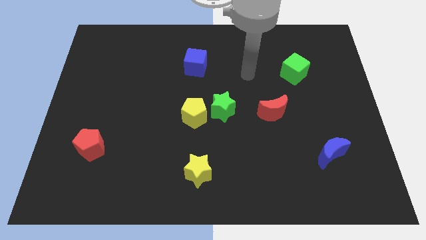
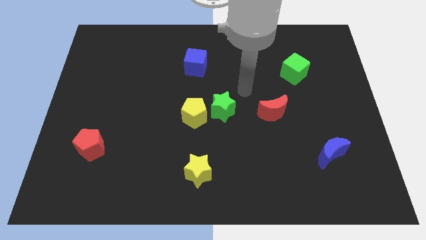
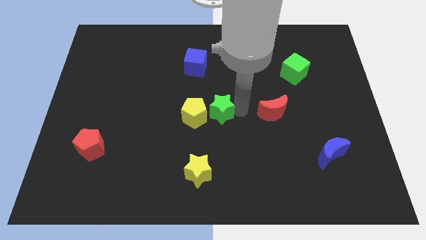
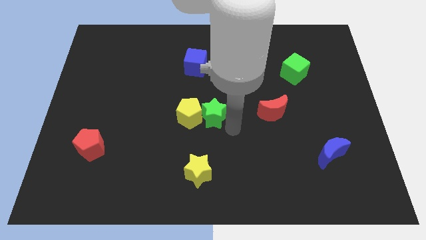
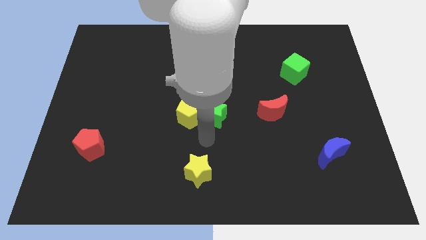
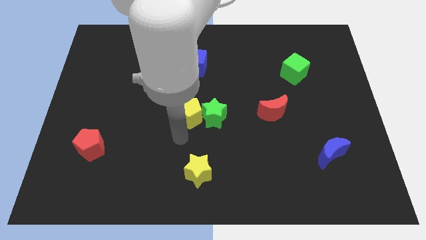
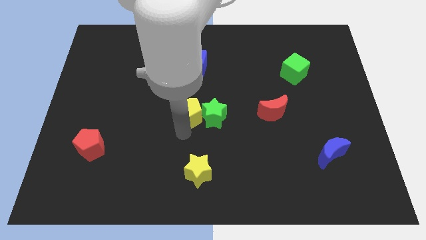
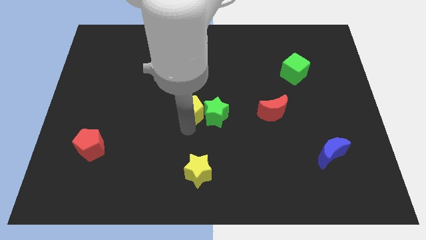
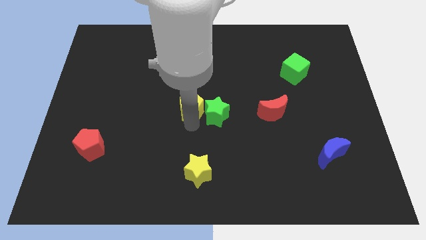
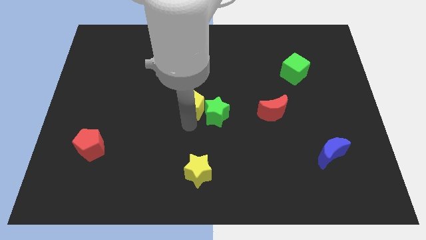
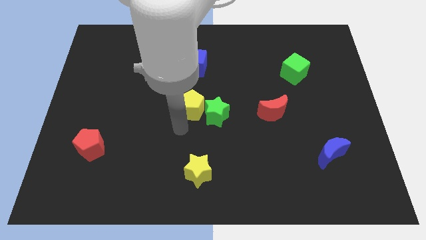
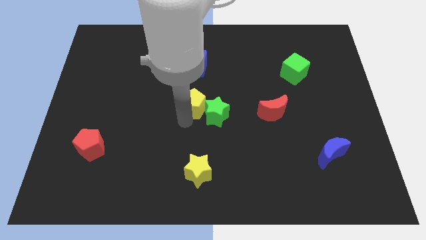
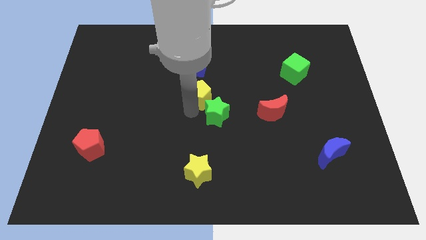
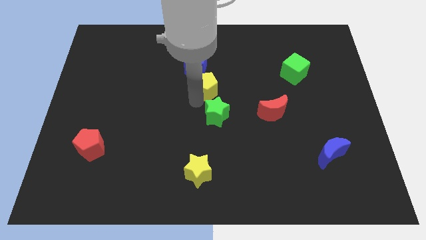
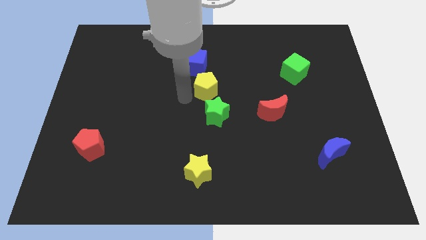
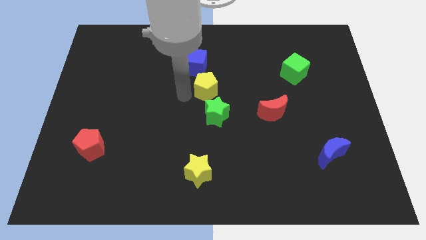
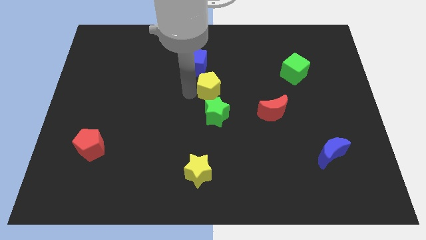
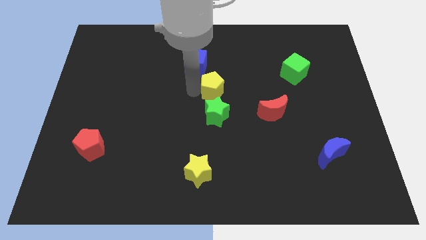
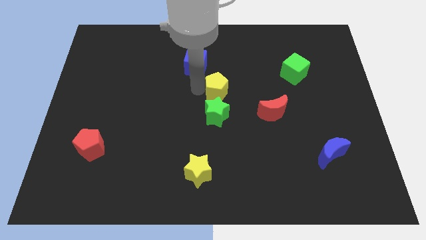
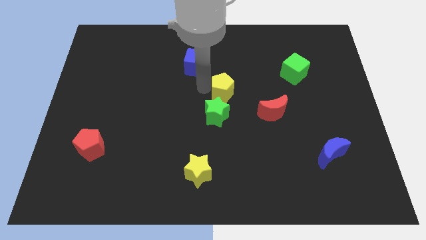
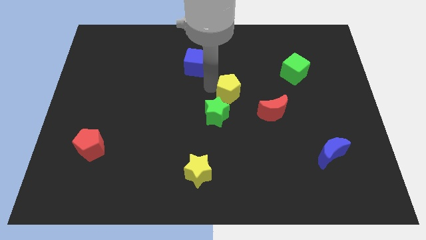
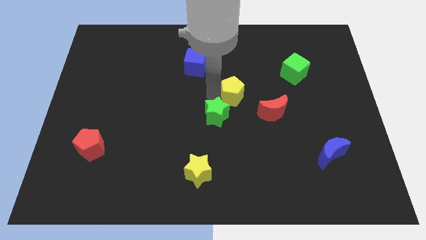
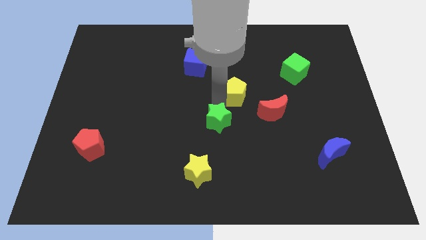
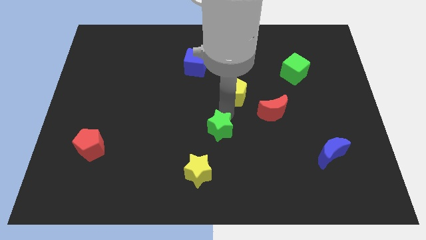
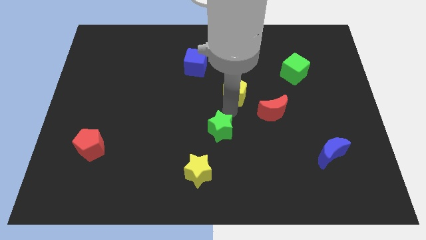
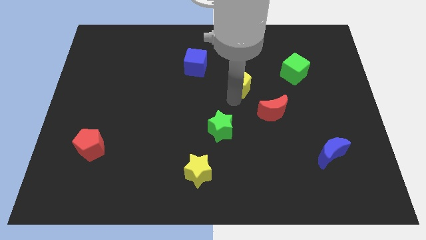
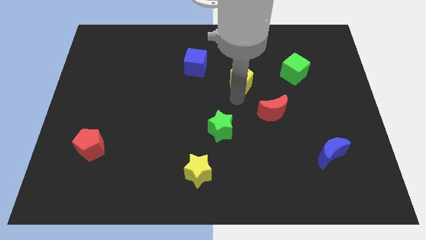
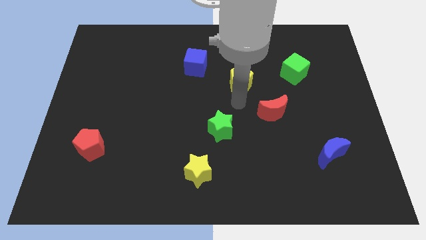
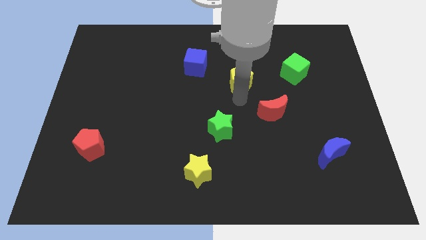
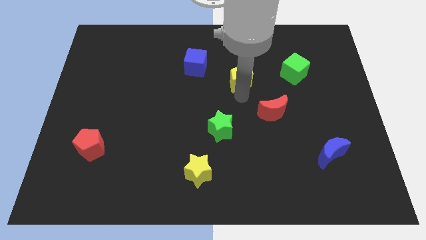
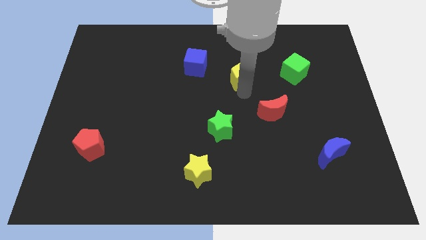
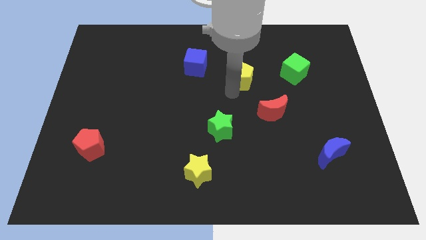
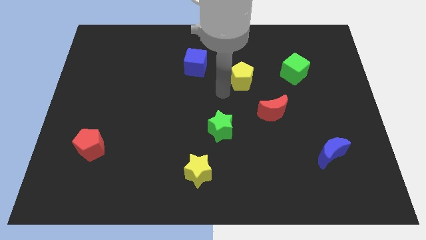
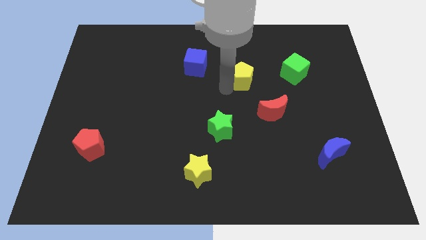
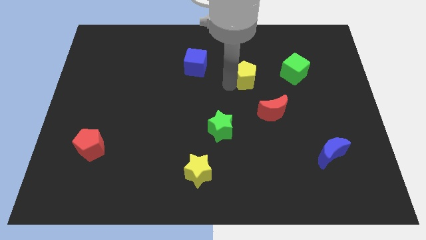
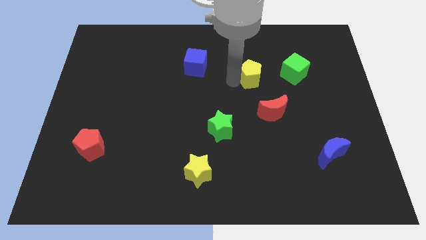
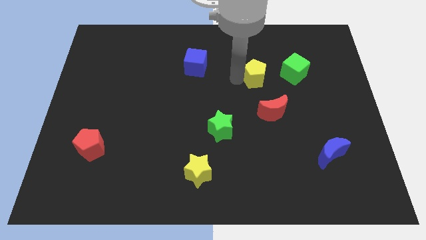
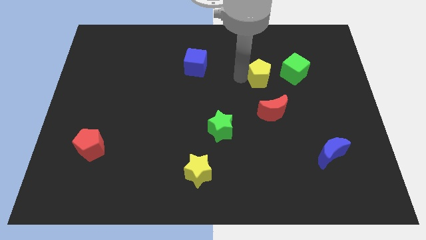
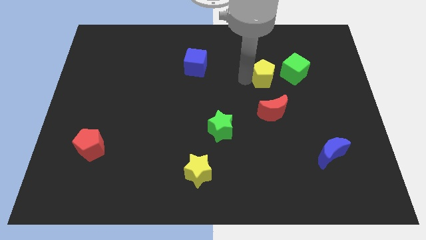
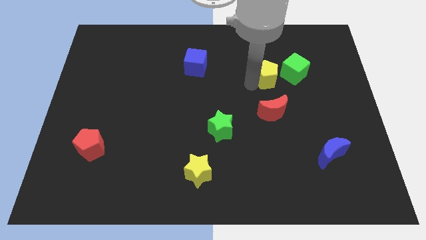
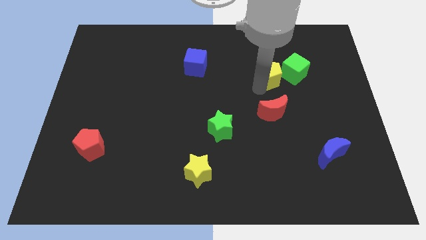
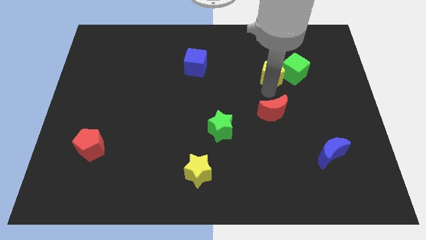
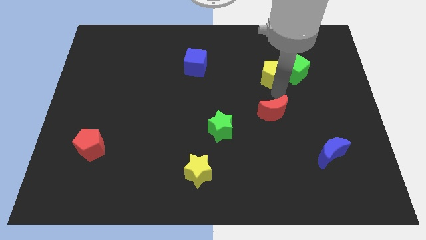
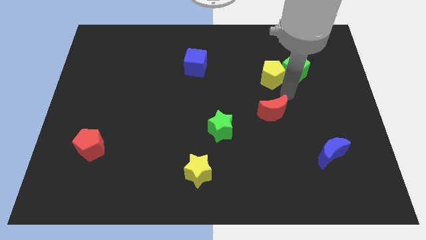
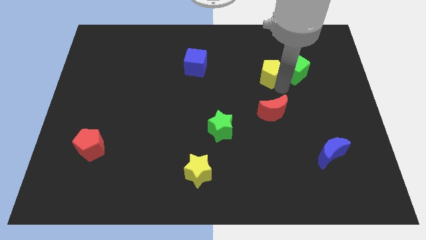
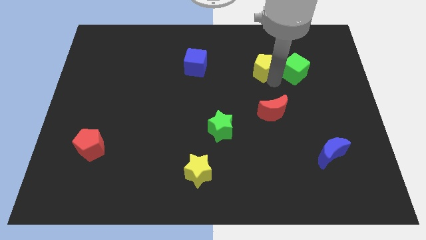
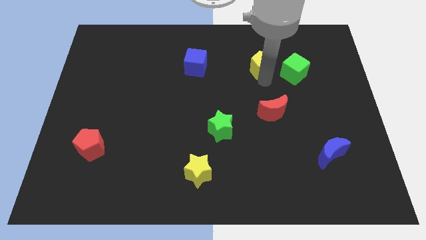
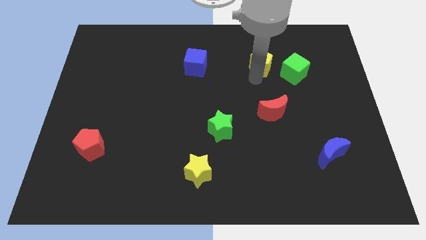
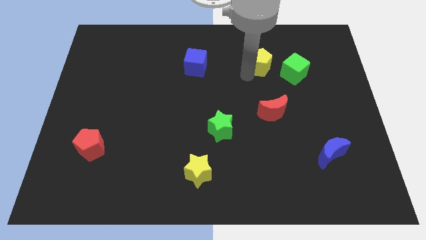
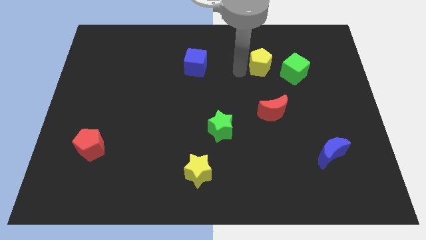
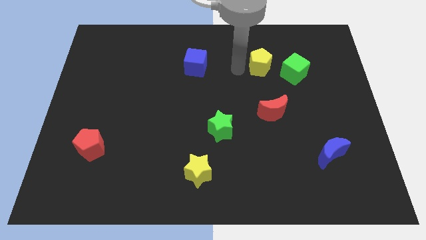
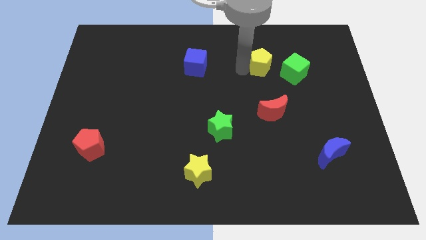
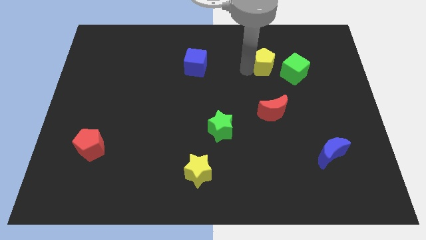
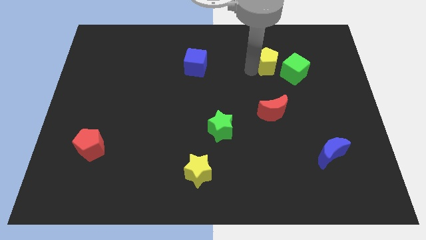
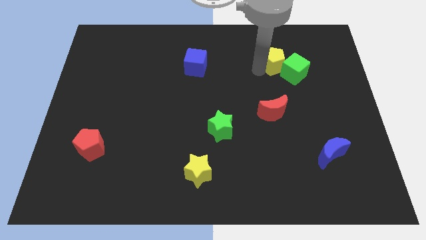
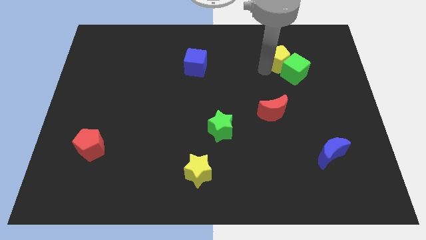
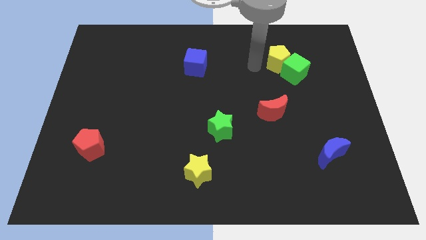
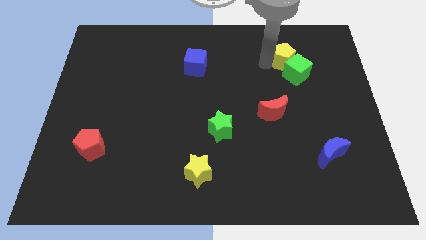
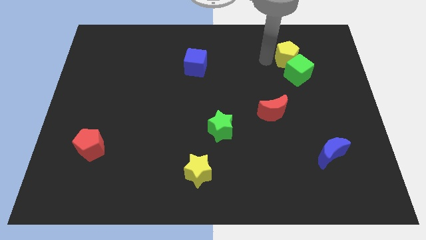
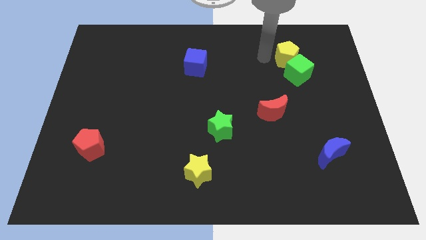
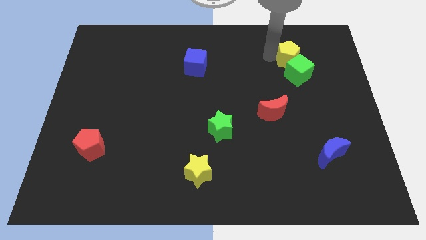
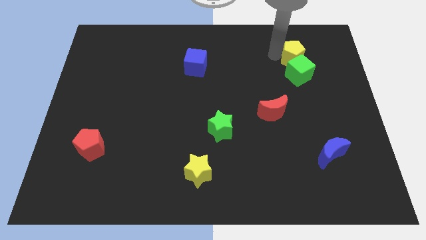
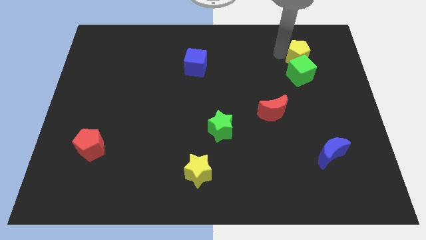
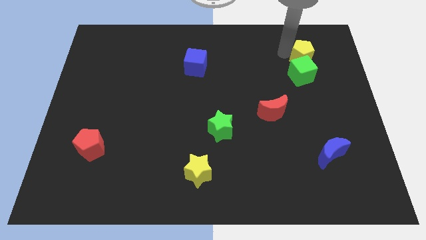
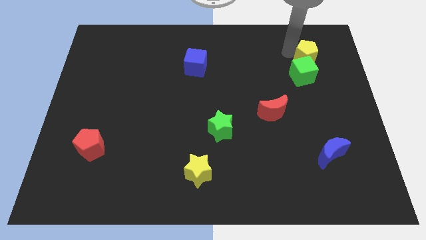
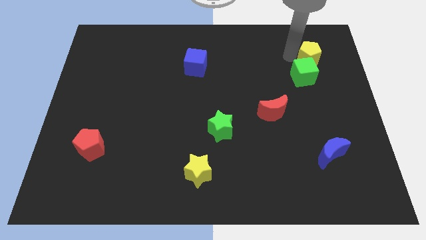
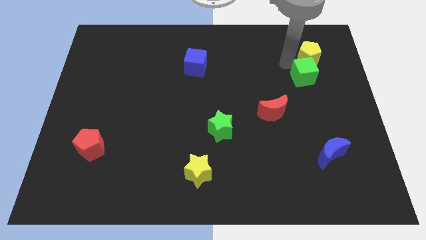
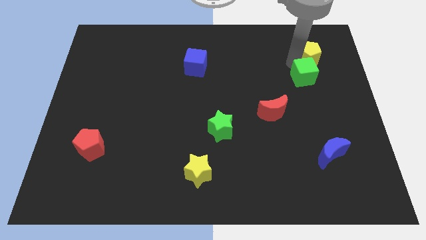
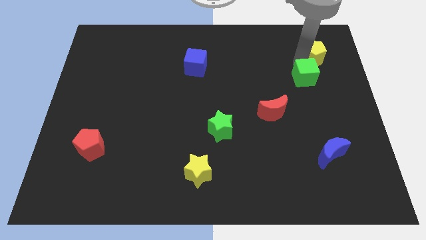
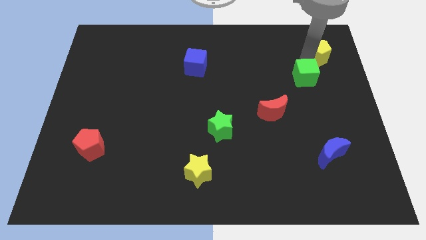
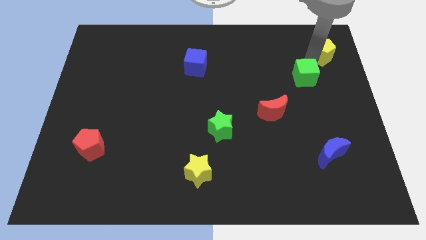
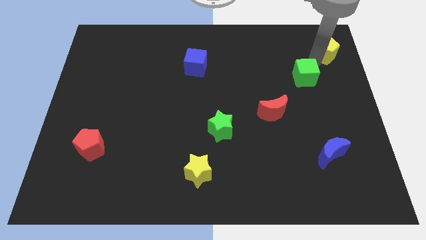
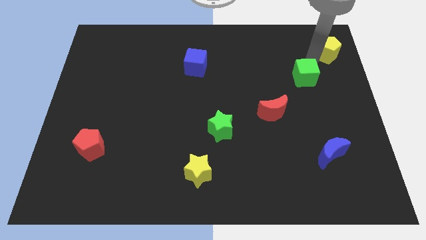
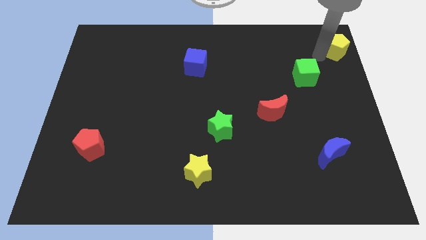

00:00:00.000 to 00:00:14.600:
push the yellow pentagon to the upper right corner

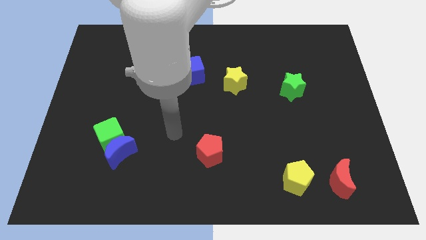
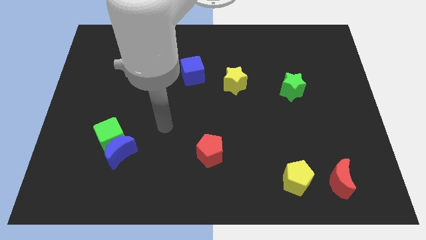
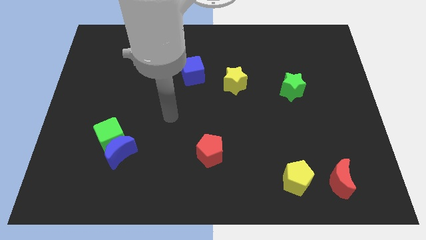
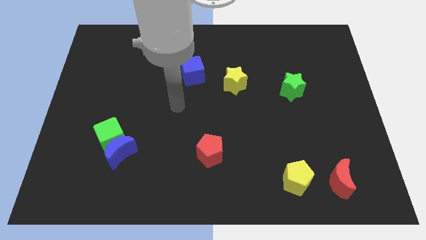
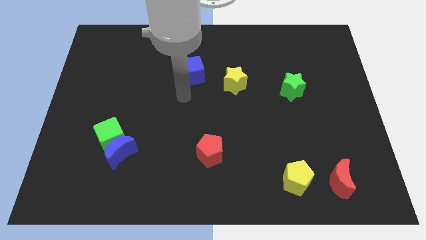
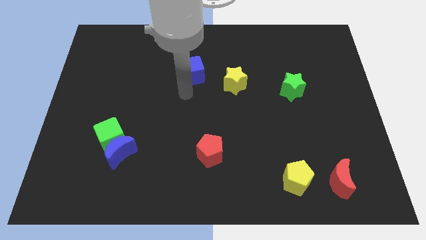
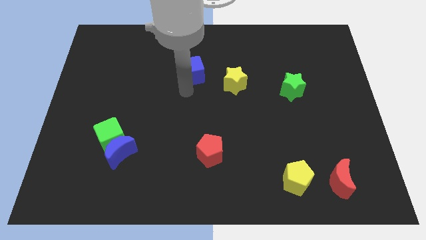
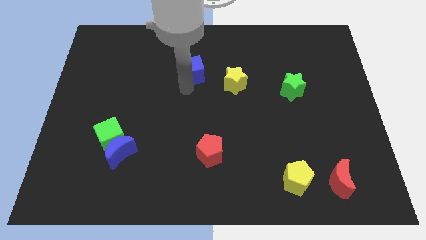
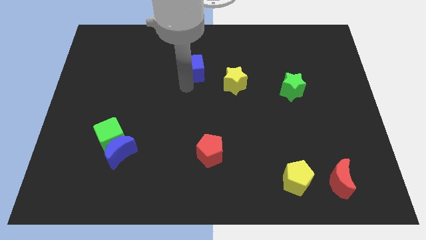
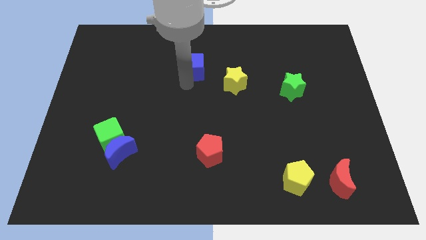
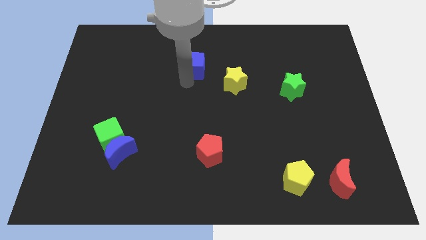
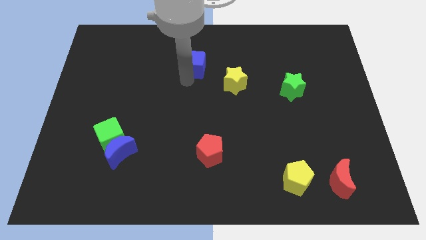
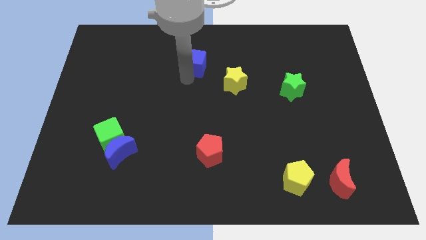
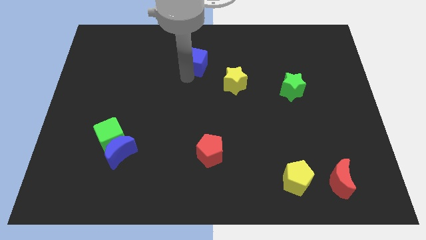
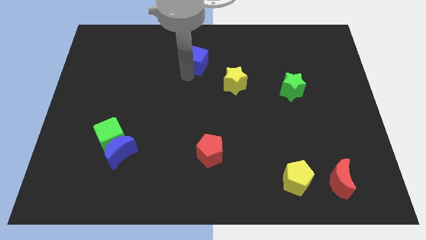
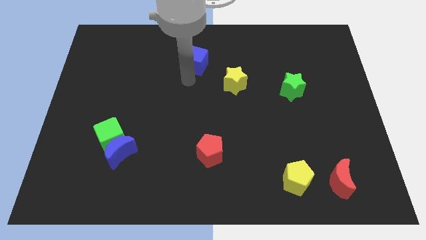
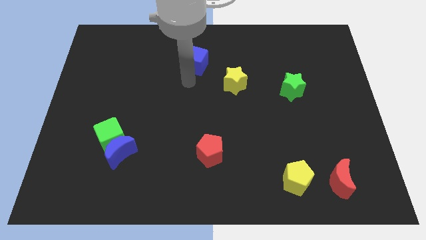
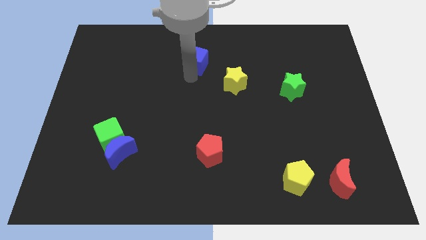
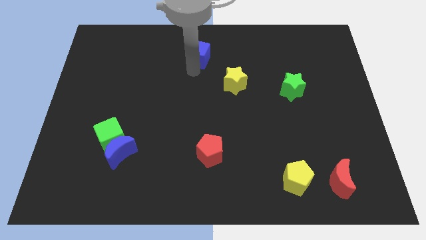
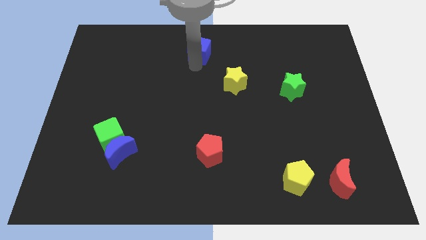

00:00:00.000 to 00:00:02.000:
put the blue cube to the top side
